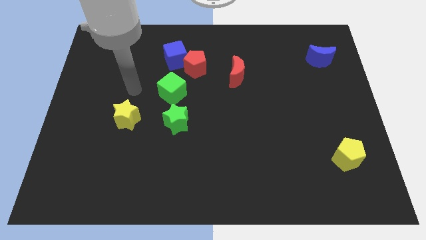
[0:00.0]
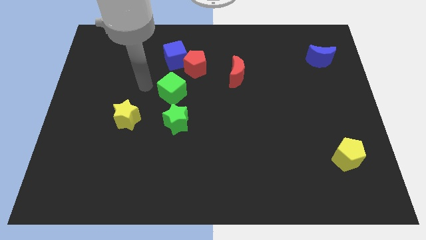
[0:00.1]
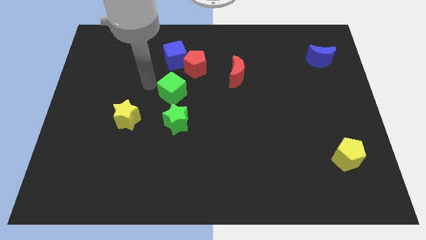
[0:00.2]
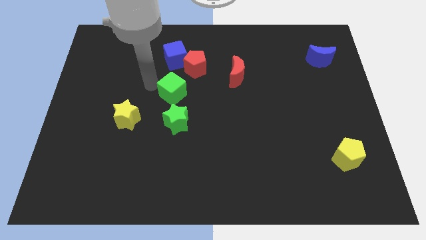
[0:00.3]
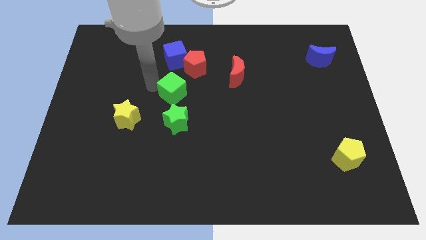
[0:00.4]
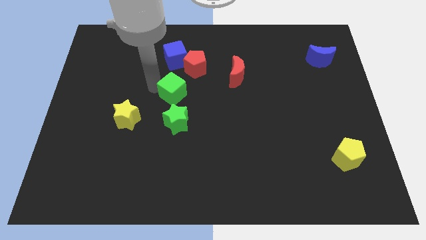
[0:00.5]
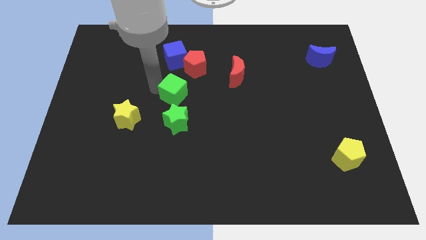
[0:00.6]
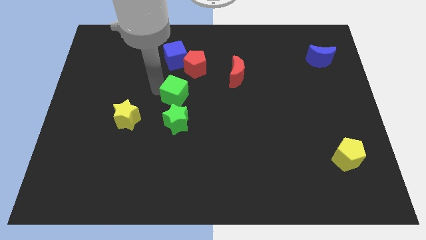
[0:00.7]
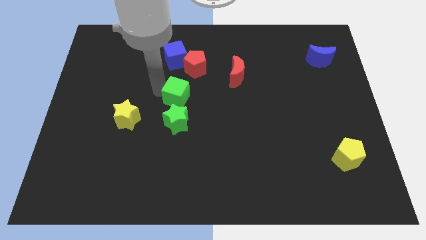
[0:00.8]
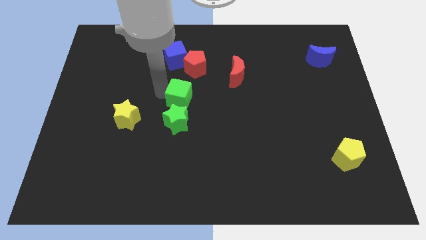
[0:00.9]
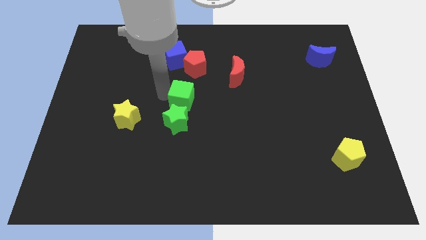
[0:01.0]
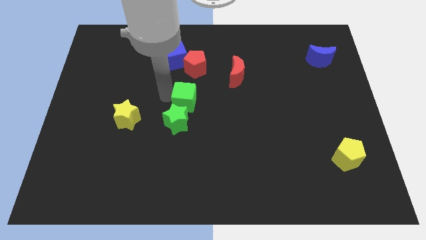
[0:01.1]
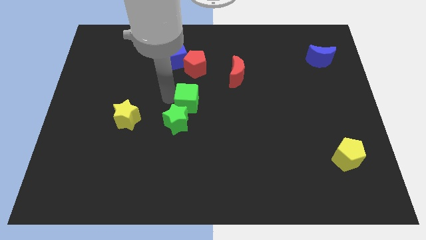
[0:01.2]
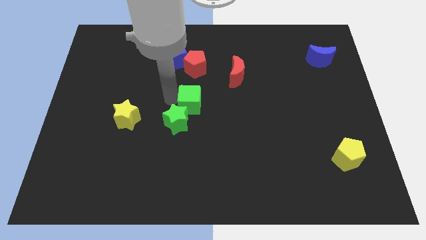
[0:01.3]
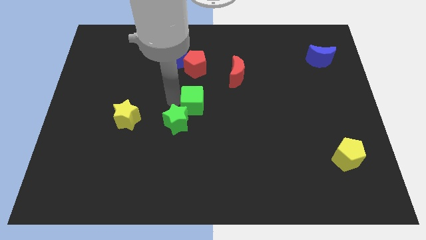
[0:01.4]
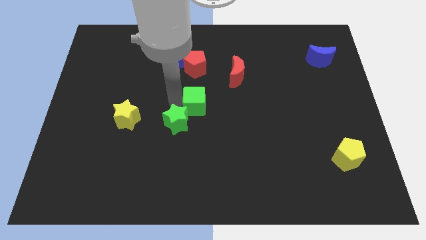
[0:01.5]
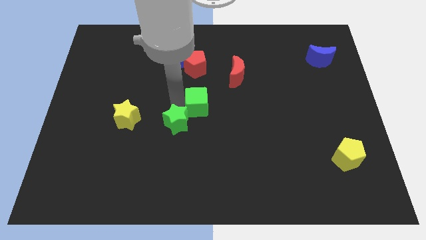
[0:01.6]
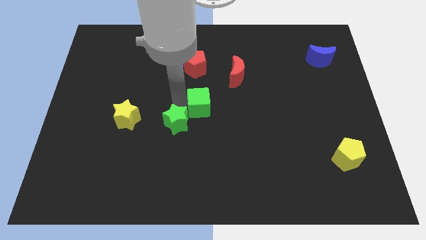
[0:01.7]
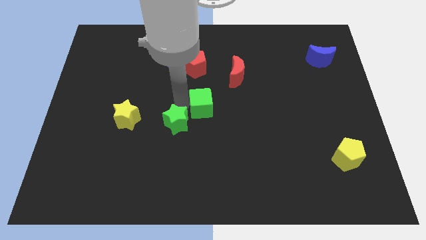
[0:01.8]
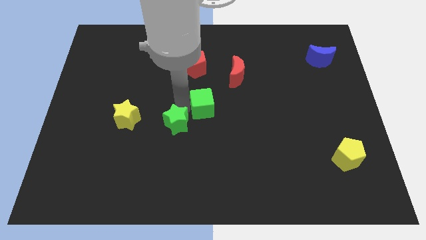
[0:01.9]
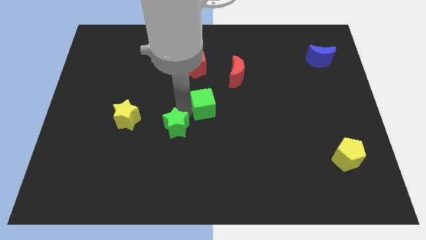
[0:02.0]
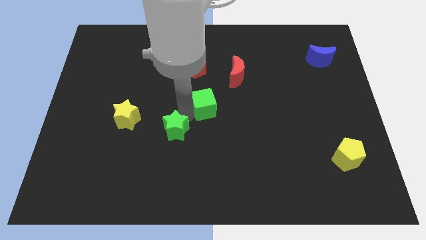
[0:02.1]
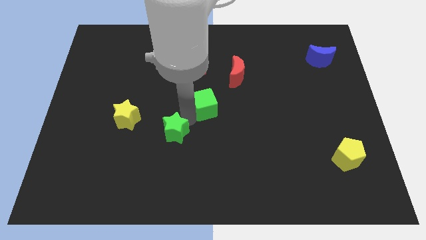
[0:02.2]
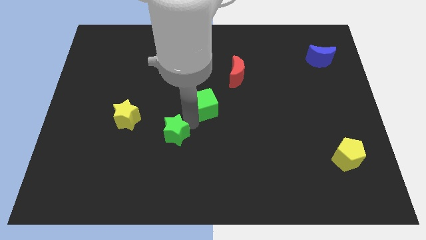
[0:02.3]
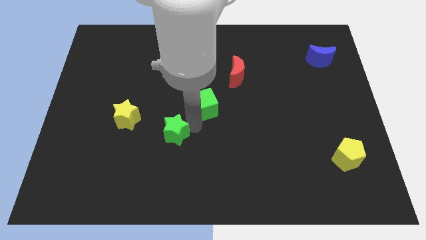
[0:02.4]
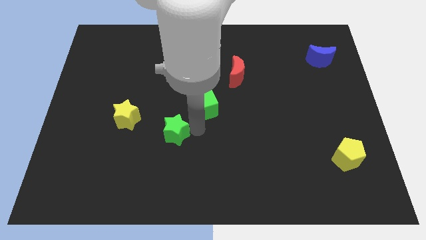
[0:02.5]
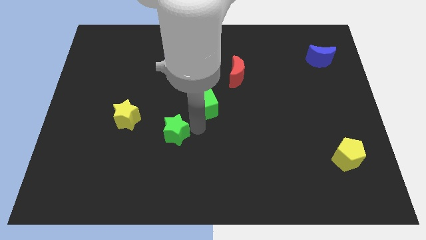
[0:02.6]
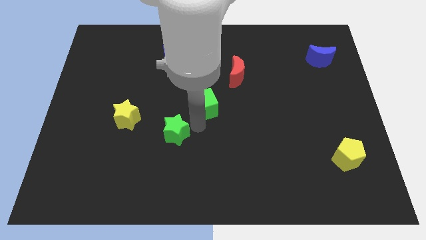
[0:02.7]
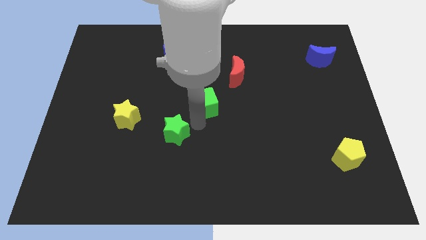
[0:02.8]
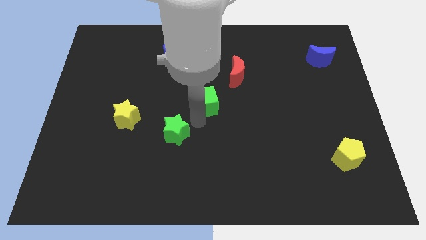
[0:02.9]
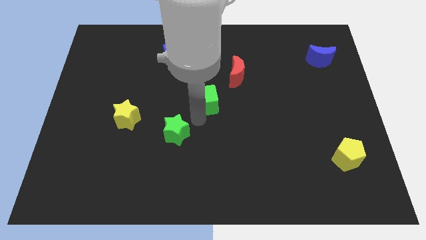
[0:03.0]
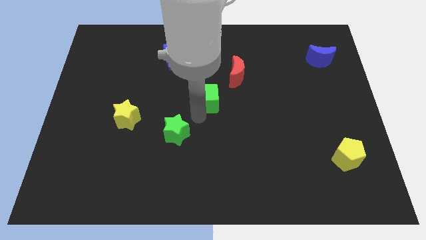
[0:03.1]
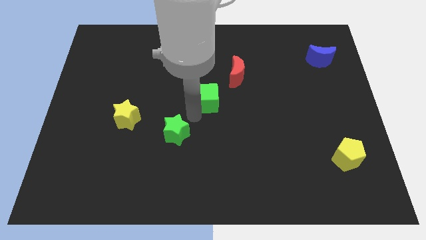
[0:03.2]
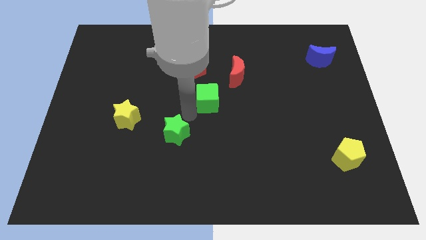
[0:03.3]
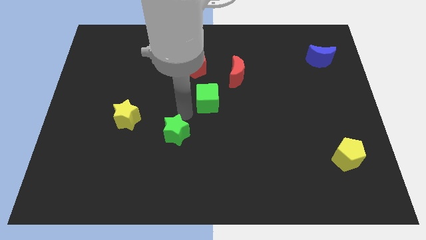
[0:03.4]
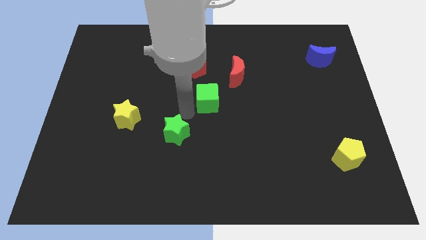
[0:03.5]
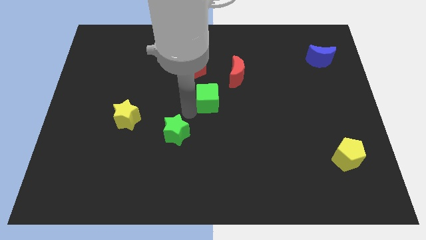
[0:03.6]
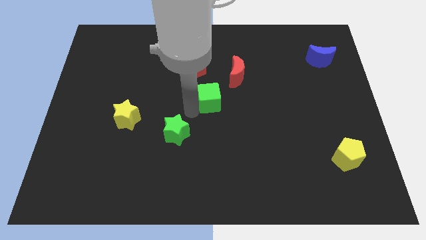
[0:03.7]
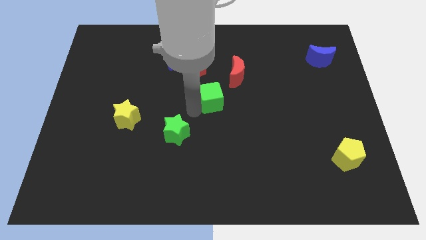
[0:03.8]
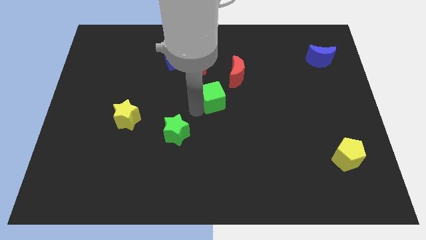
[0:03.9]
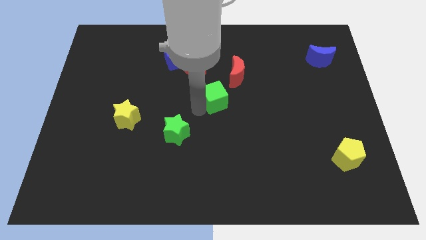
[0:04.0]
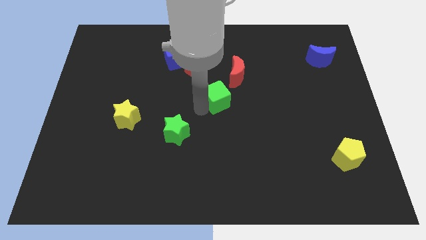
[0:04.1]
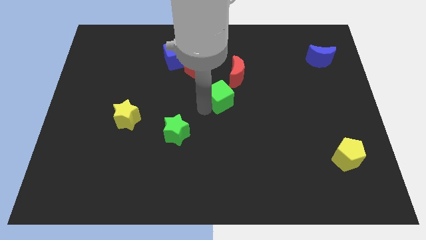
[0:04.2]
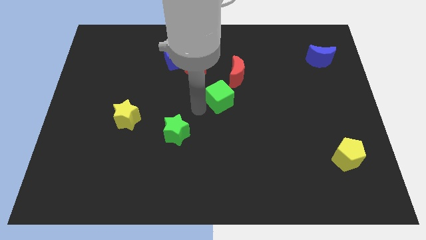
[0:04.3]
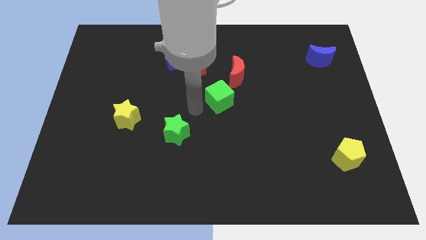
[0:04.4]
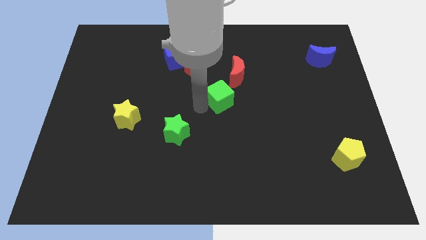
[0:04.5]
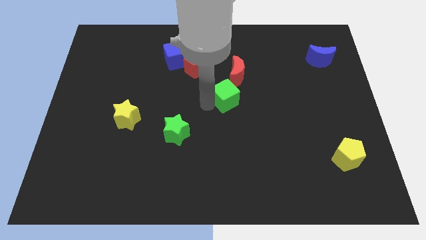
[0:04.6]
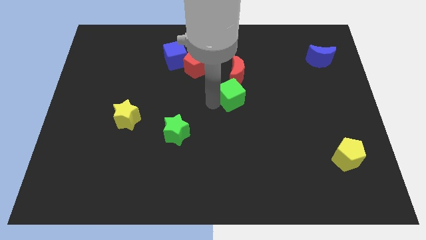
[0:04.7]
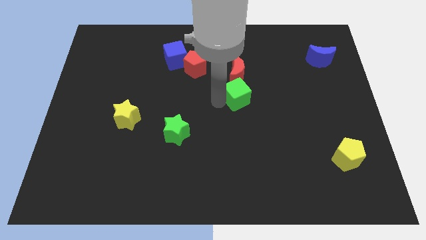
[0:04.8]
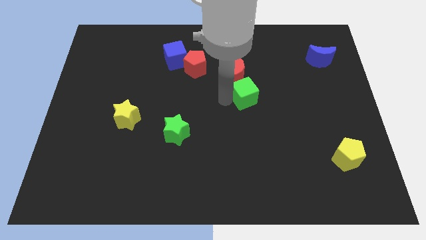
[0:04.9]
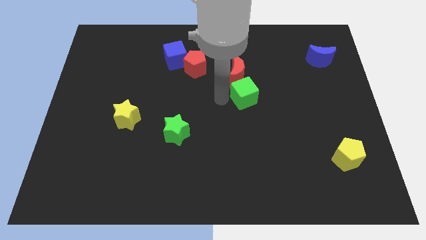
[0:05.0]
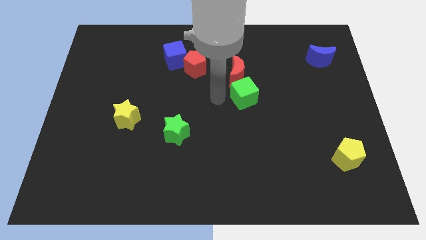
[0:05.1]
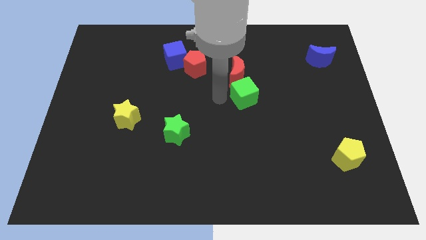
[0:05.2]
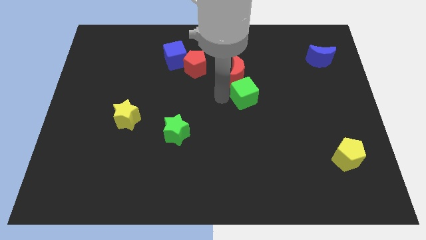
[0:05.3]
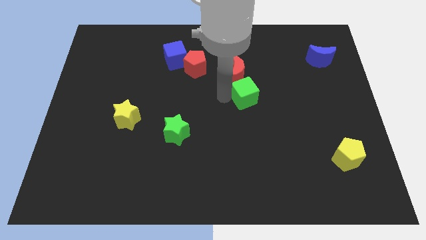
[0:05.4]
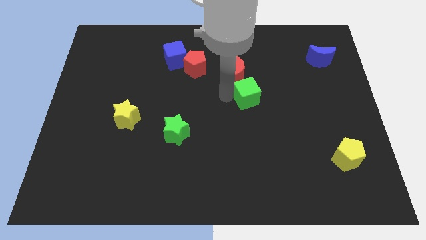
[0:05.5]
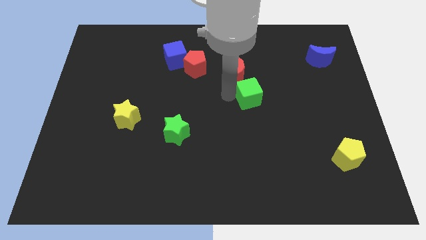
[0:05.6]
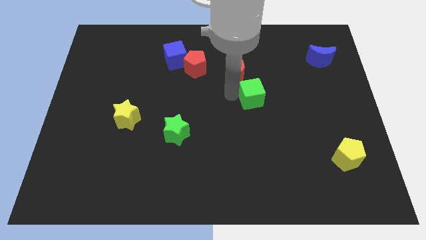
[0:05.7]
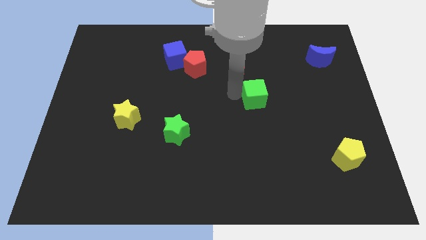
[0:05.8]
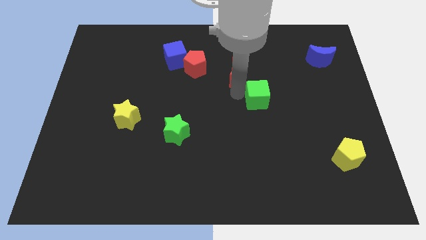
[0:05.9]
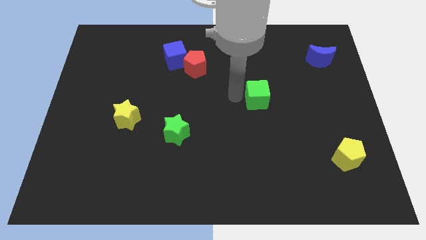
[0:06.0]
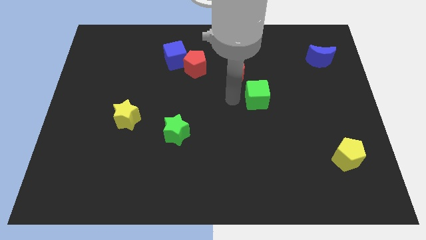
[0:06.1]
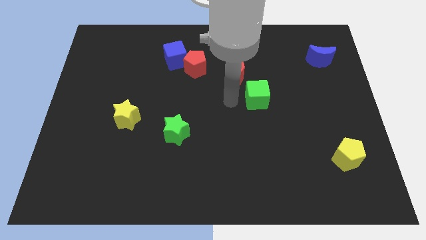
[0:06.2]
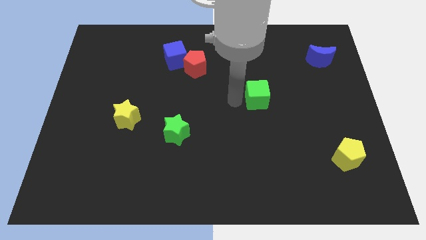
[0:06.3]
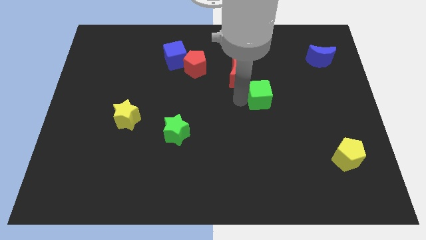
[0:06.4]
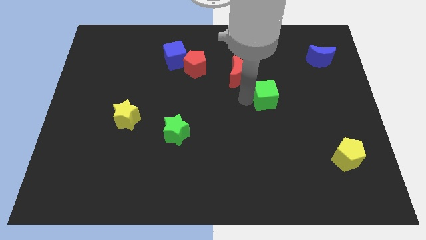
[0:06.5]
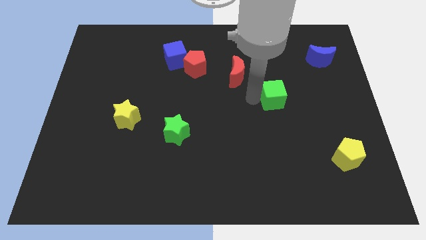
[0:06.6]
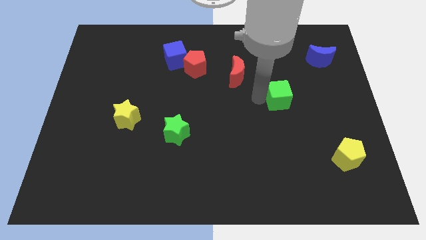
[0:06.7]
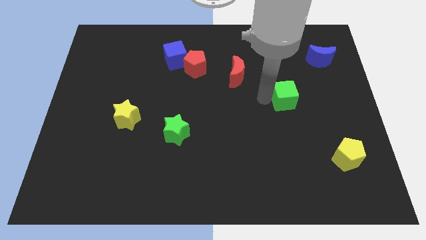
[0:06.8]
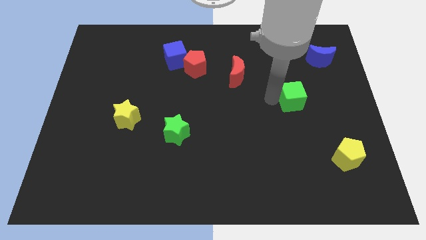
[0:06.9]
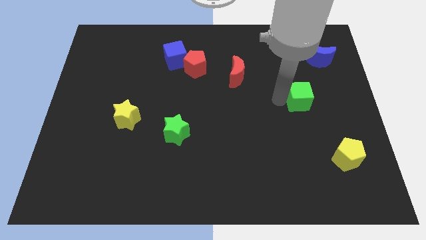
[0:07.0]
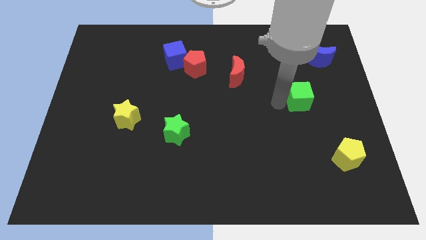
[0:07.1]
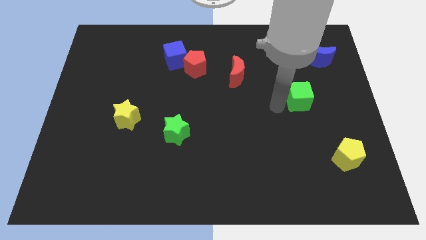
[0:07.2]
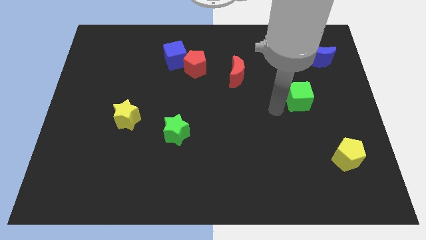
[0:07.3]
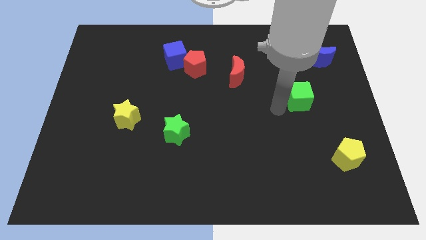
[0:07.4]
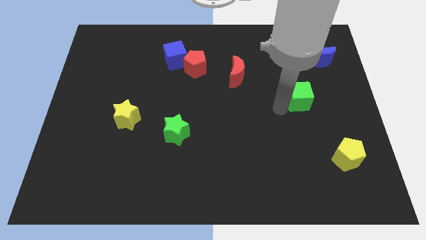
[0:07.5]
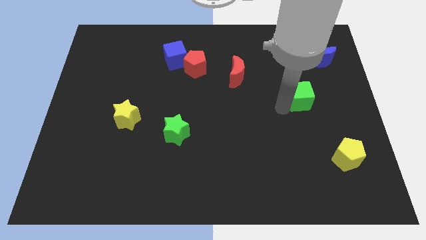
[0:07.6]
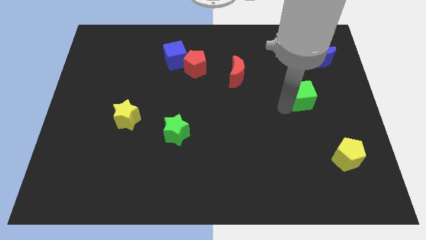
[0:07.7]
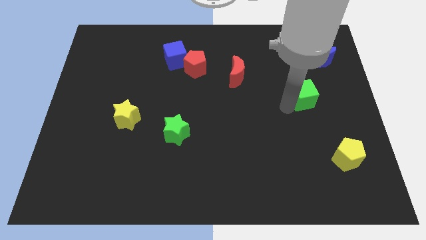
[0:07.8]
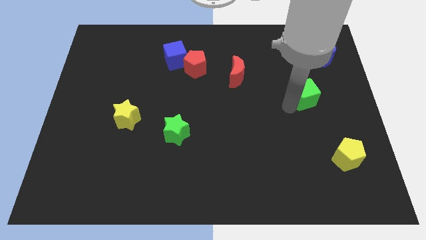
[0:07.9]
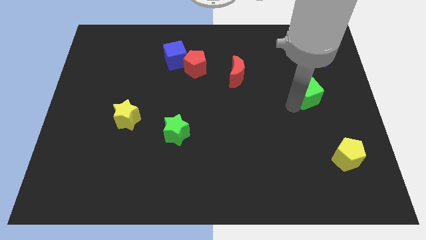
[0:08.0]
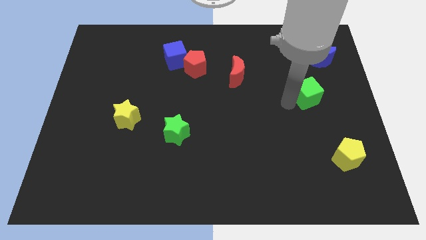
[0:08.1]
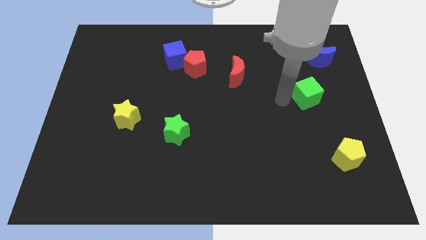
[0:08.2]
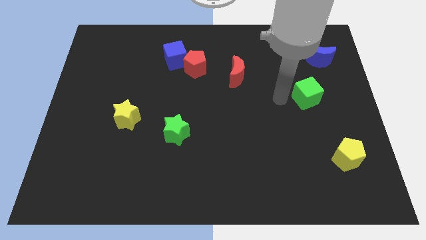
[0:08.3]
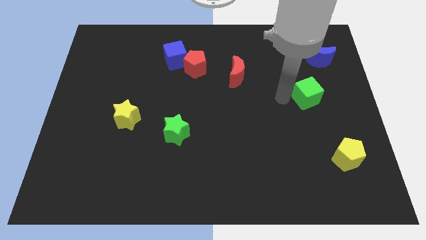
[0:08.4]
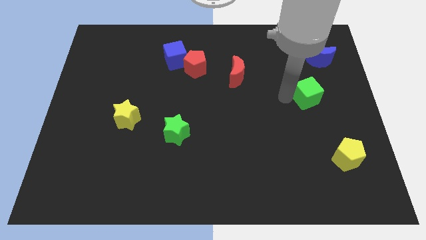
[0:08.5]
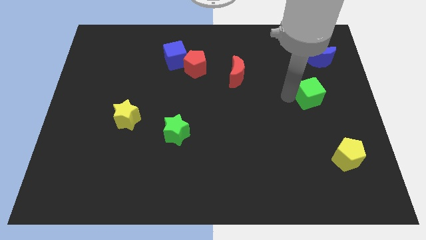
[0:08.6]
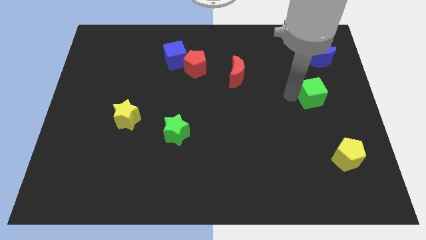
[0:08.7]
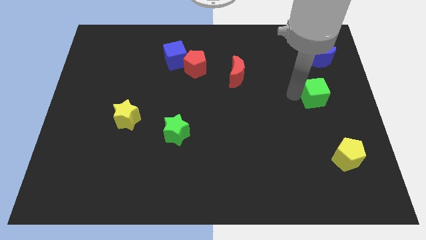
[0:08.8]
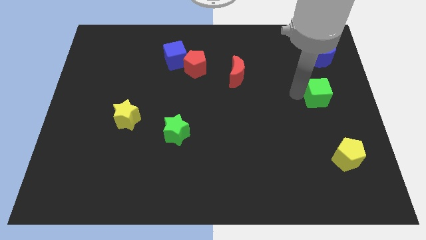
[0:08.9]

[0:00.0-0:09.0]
put the green cube to the right side of the board
